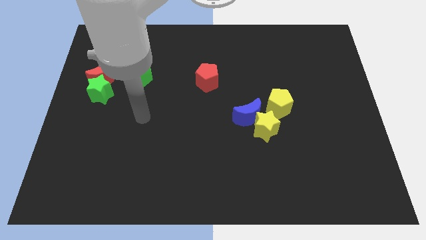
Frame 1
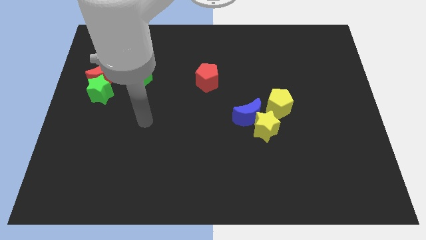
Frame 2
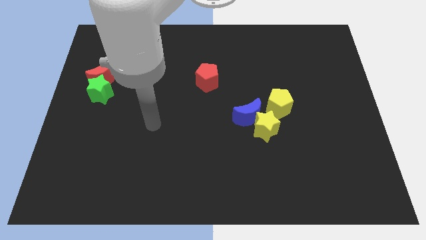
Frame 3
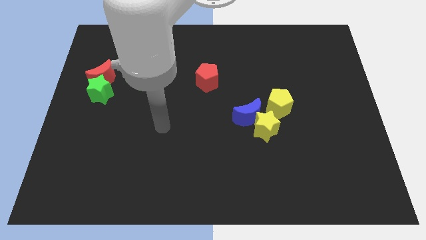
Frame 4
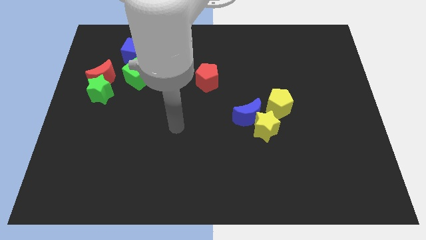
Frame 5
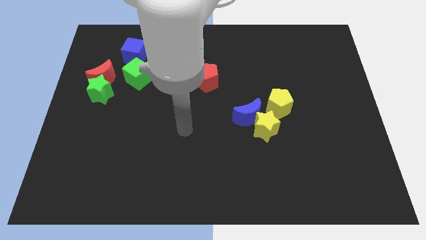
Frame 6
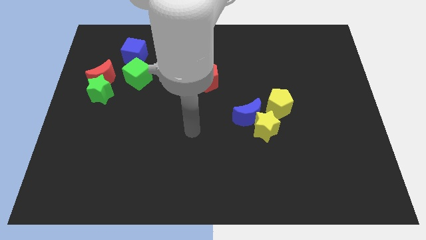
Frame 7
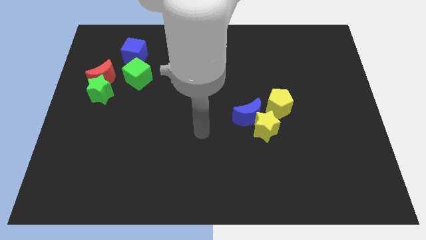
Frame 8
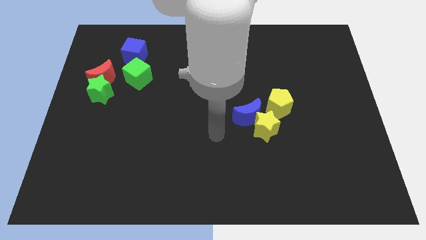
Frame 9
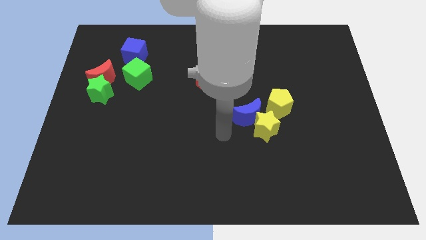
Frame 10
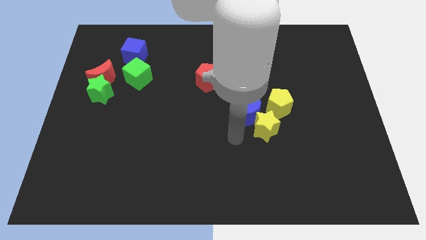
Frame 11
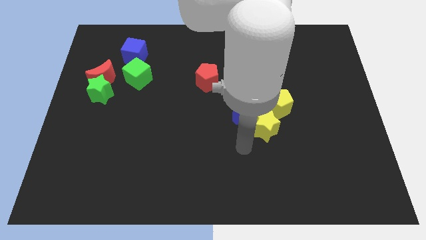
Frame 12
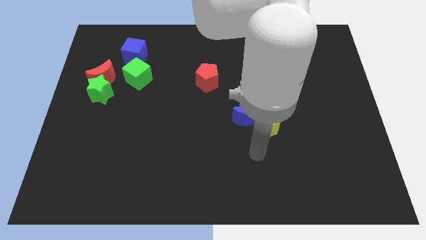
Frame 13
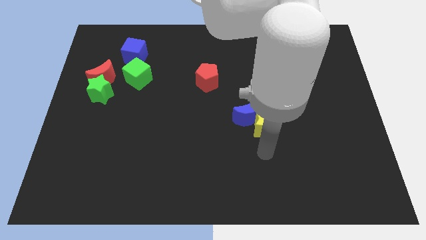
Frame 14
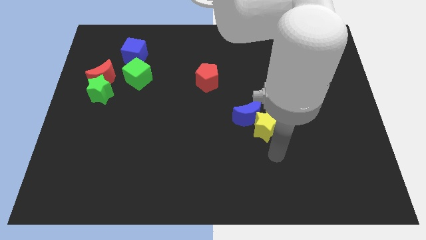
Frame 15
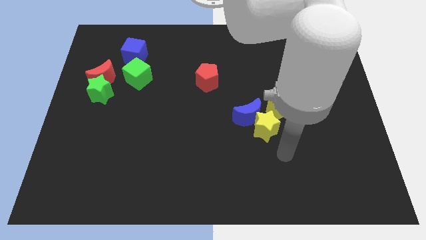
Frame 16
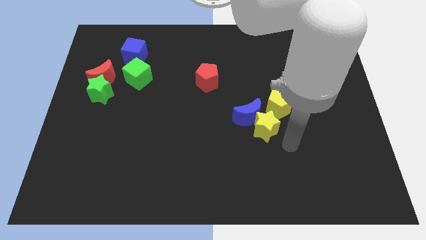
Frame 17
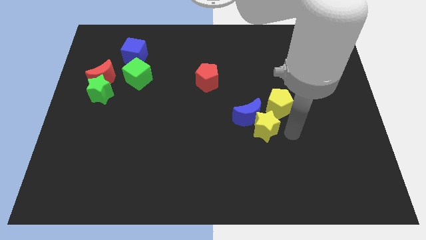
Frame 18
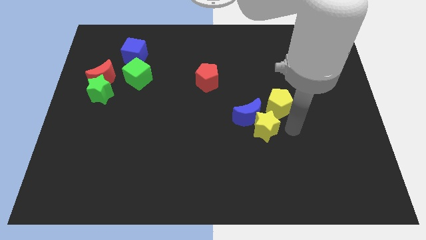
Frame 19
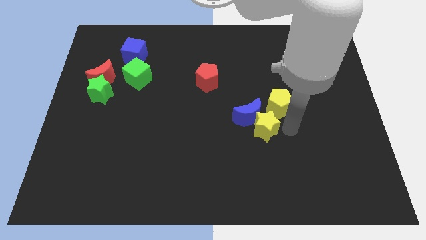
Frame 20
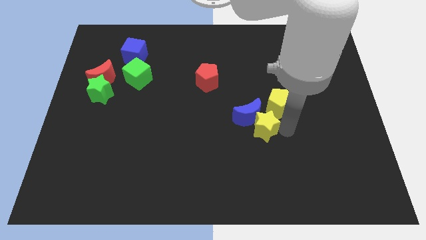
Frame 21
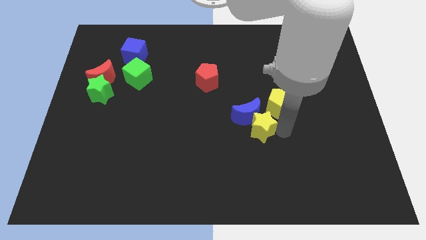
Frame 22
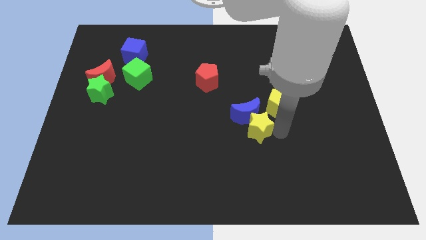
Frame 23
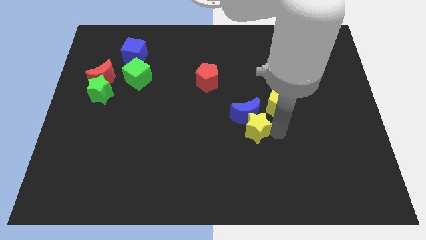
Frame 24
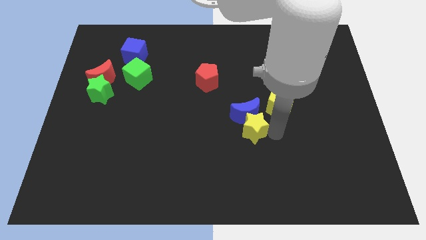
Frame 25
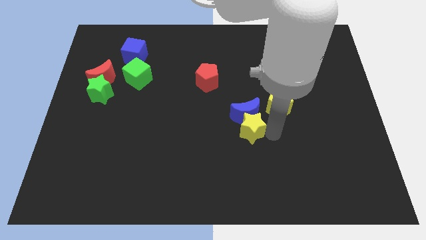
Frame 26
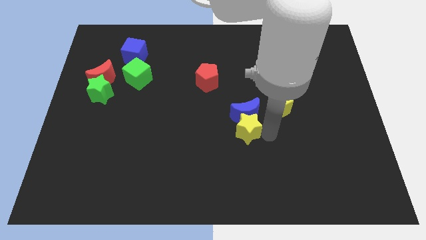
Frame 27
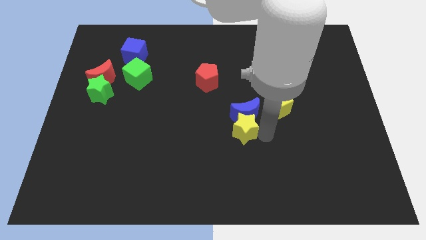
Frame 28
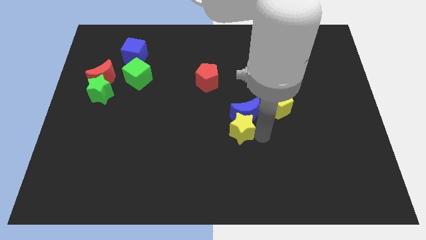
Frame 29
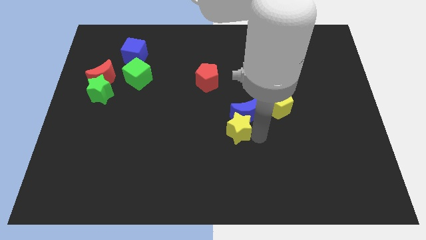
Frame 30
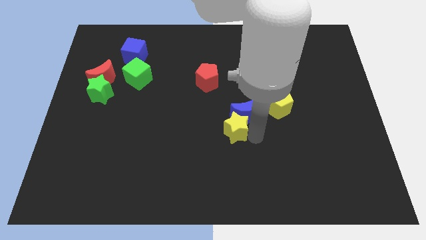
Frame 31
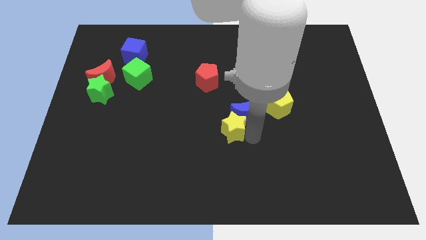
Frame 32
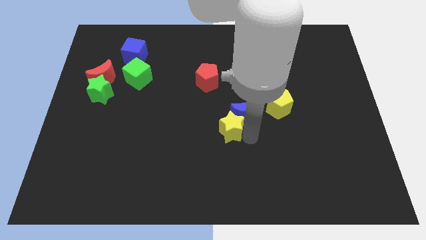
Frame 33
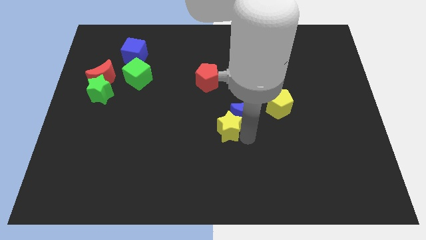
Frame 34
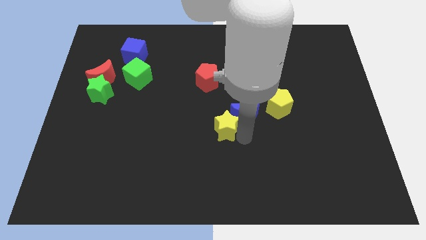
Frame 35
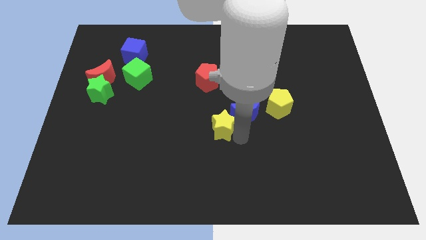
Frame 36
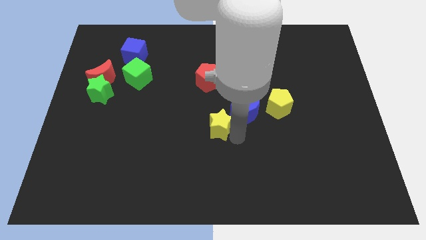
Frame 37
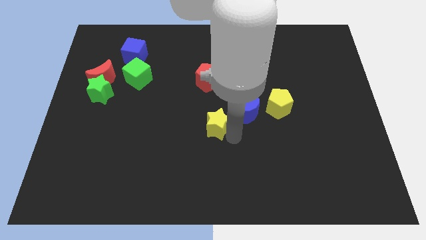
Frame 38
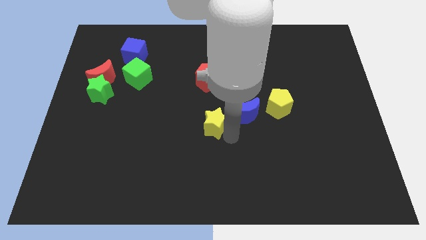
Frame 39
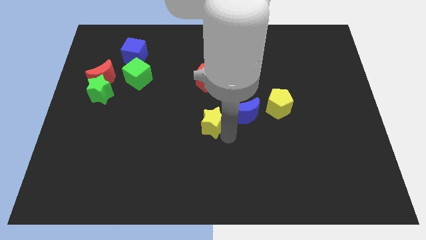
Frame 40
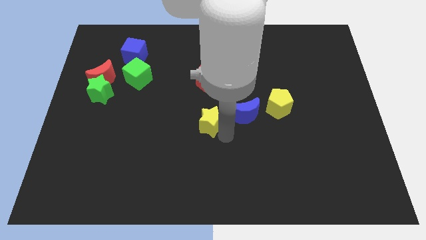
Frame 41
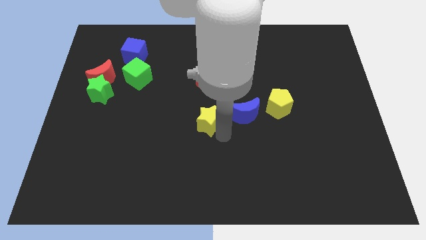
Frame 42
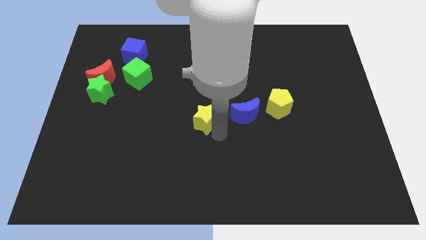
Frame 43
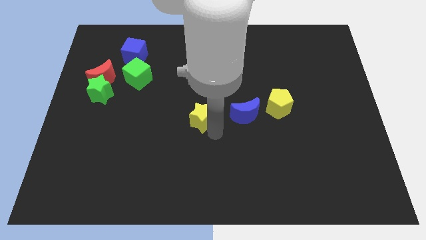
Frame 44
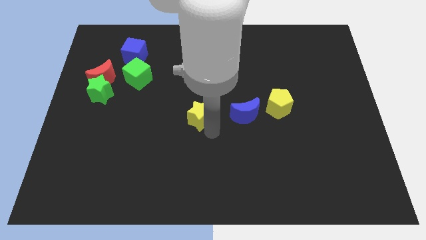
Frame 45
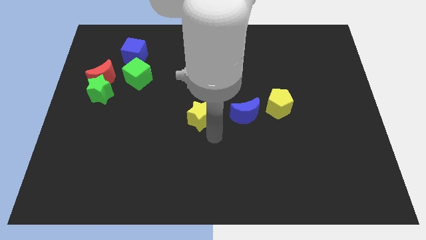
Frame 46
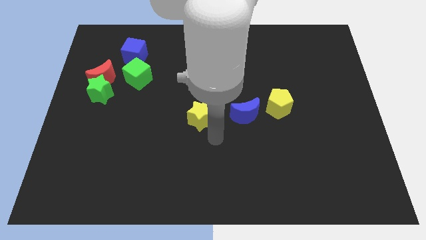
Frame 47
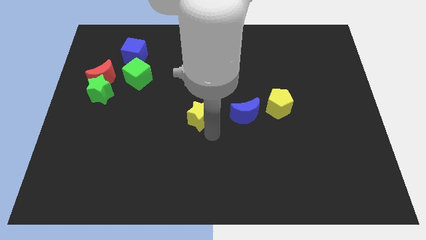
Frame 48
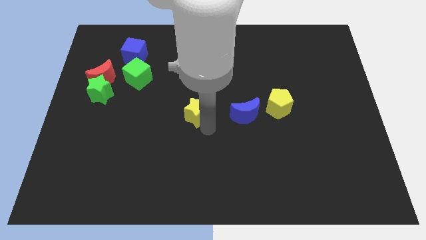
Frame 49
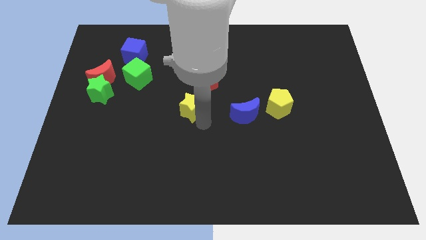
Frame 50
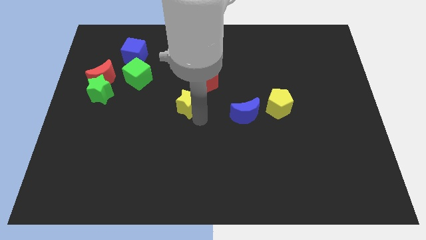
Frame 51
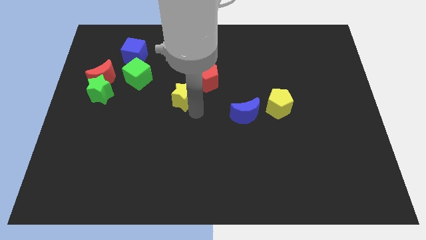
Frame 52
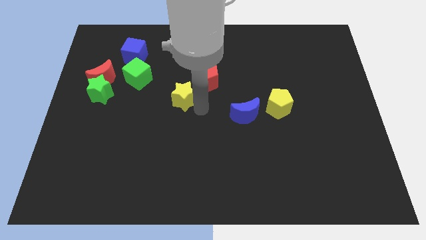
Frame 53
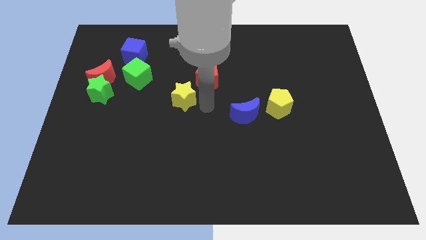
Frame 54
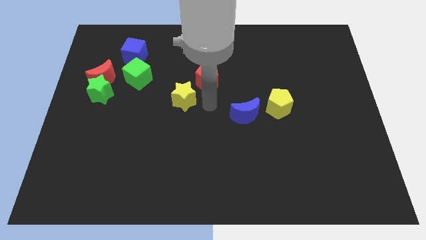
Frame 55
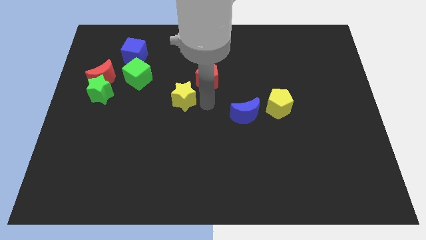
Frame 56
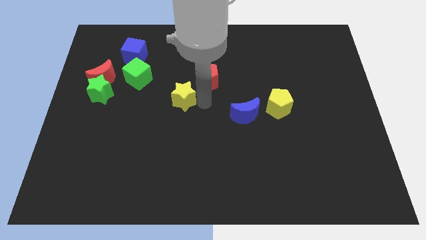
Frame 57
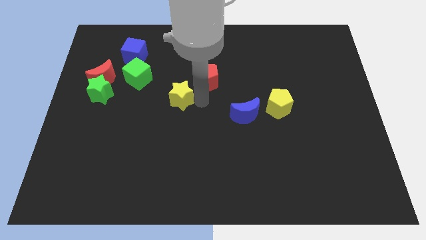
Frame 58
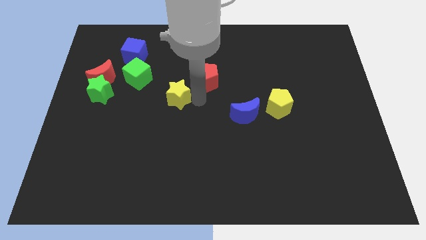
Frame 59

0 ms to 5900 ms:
slide the yellow star to the bottom right of the green cube

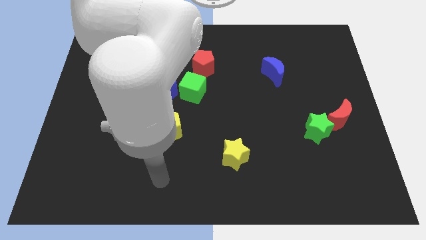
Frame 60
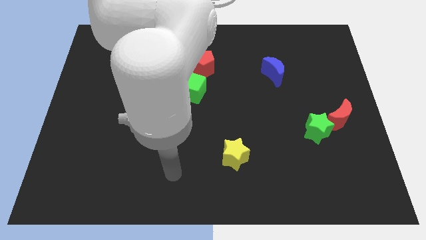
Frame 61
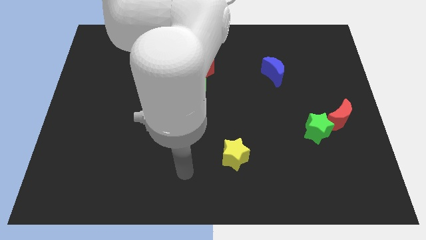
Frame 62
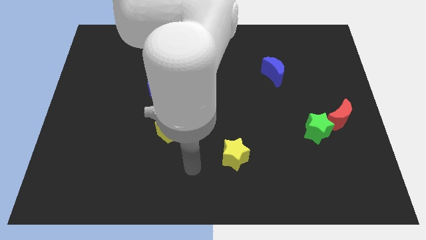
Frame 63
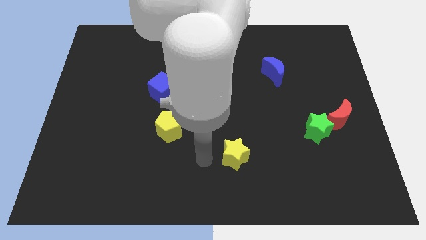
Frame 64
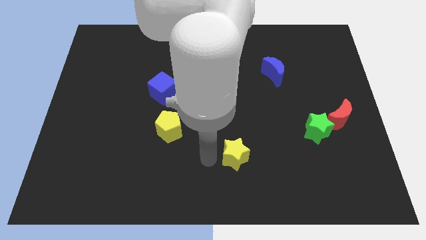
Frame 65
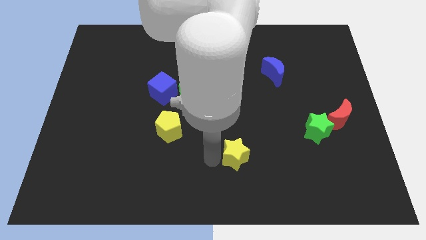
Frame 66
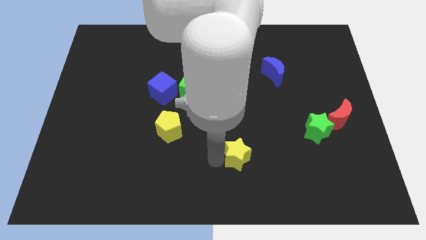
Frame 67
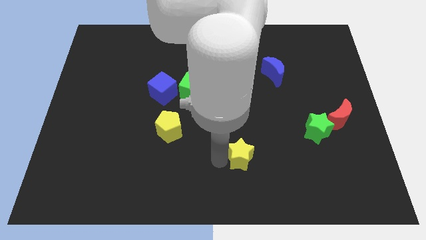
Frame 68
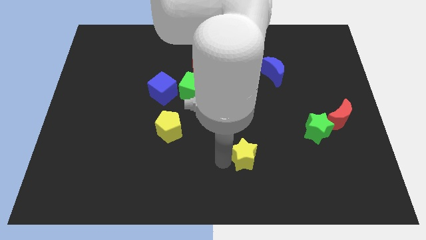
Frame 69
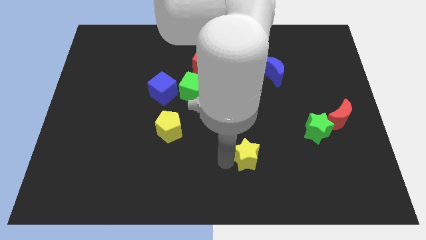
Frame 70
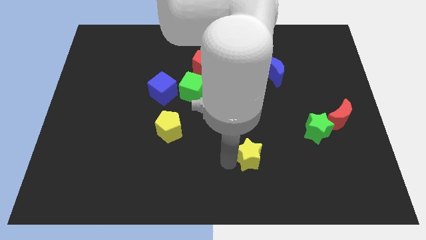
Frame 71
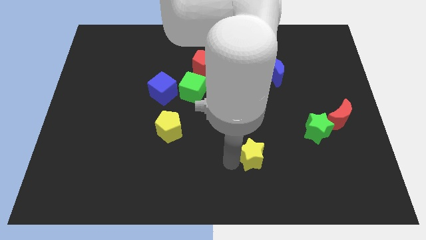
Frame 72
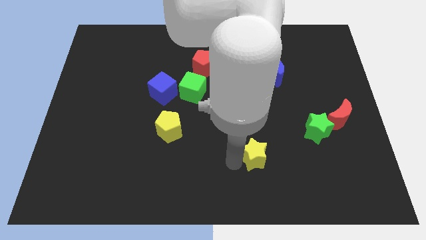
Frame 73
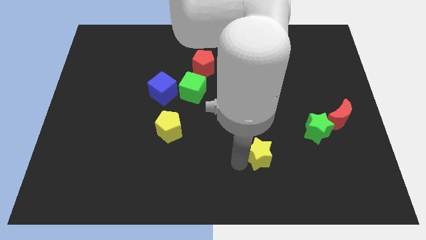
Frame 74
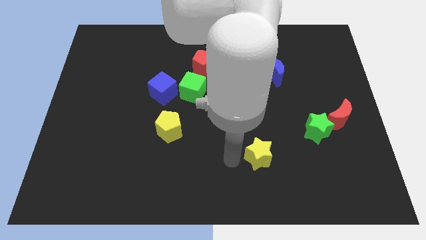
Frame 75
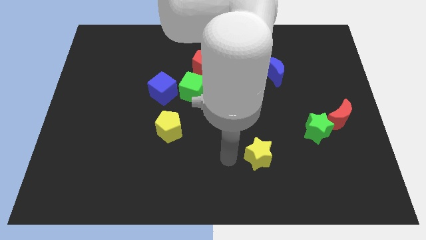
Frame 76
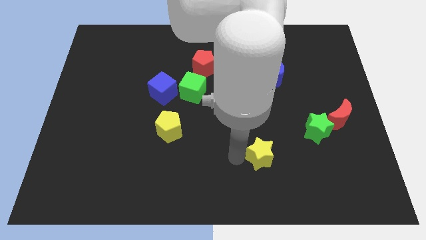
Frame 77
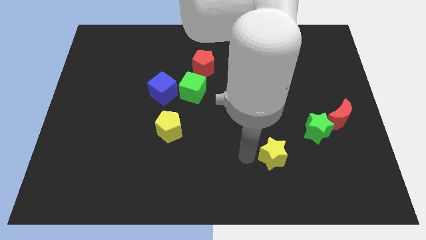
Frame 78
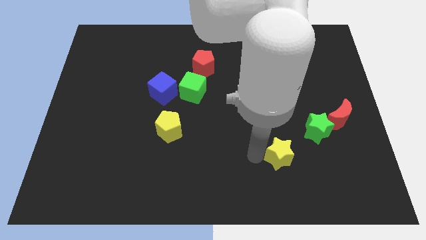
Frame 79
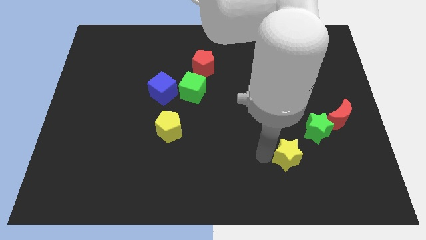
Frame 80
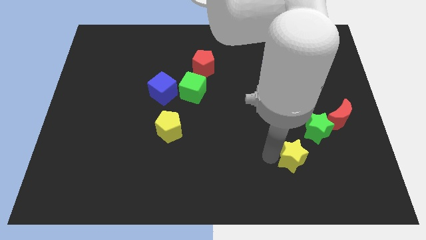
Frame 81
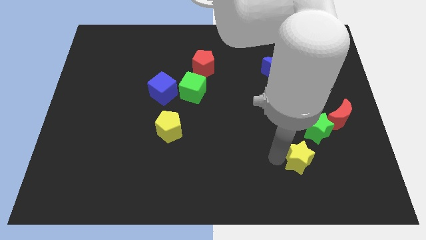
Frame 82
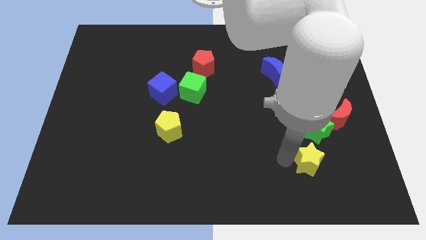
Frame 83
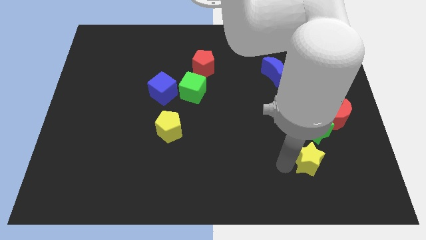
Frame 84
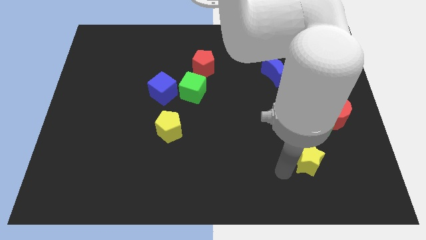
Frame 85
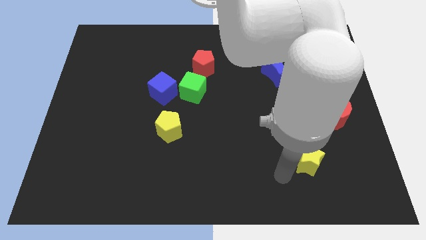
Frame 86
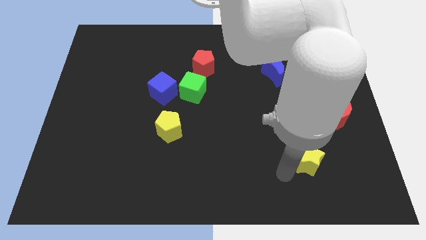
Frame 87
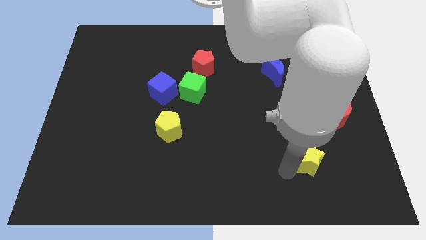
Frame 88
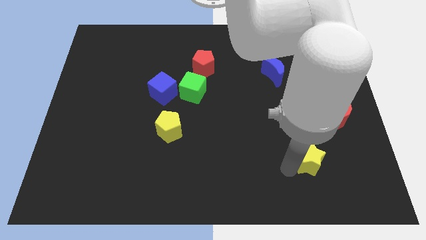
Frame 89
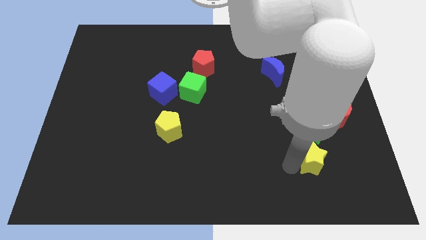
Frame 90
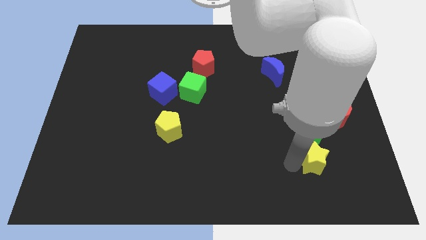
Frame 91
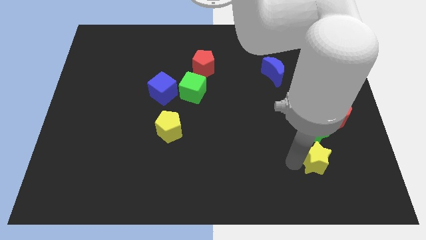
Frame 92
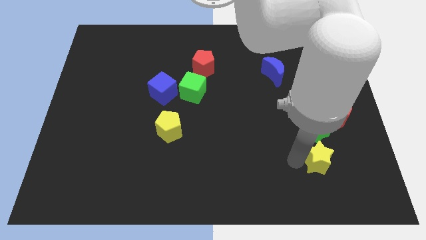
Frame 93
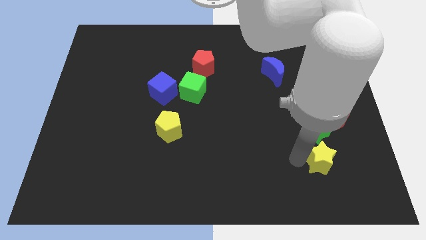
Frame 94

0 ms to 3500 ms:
move the yellow star diagonally down and to the left of the red moon
